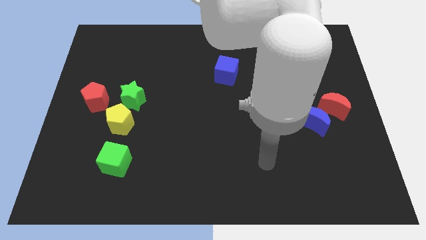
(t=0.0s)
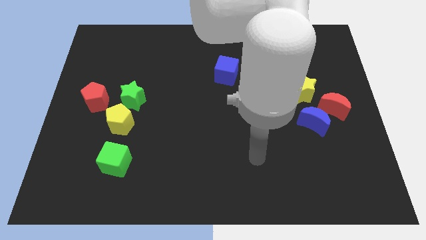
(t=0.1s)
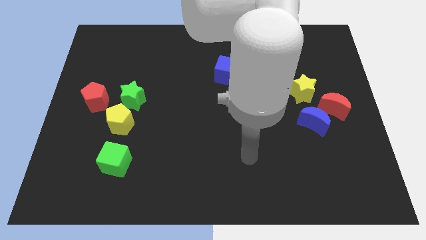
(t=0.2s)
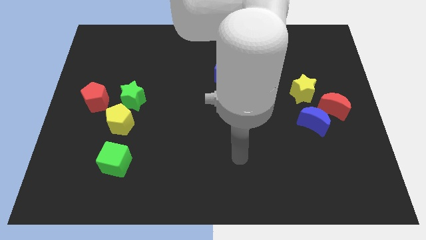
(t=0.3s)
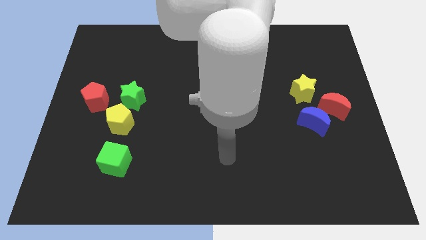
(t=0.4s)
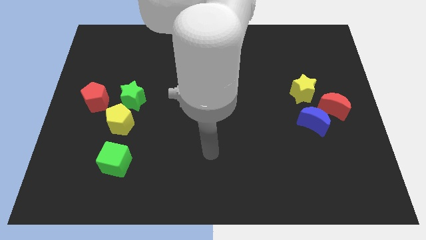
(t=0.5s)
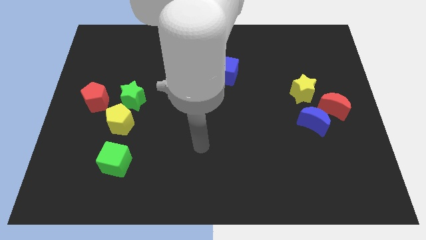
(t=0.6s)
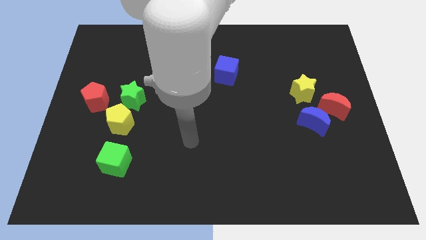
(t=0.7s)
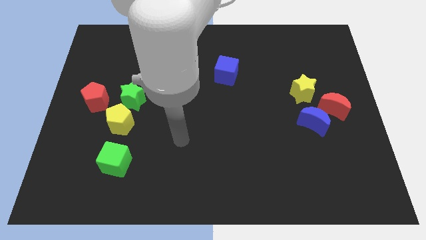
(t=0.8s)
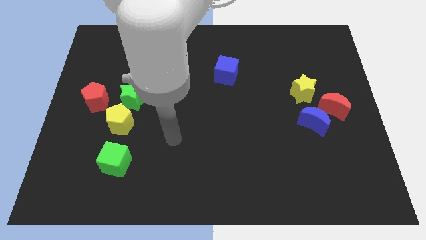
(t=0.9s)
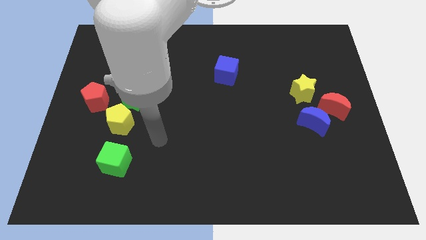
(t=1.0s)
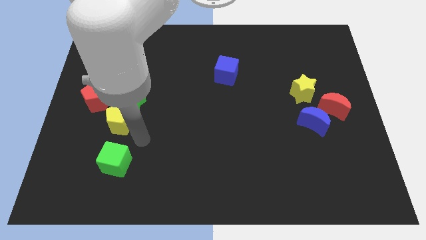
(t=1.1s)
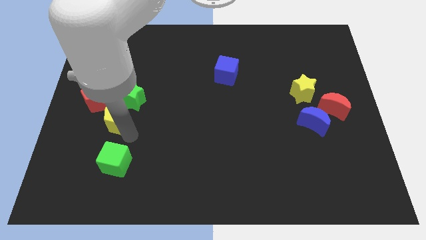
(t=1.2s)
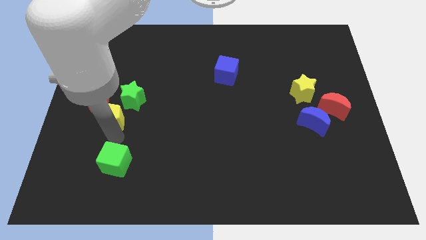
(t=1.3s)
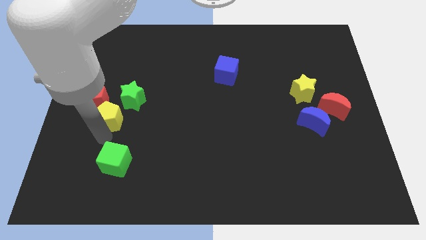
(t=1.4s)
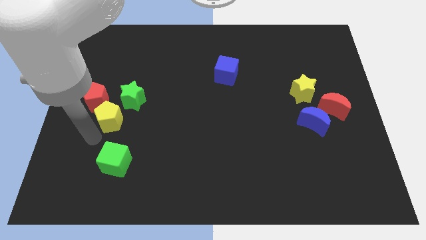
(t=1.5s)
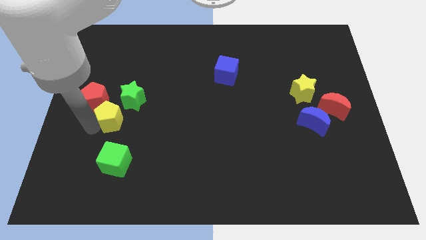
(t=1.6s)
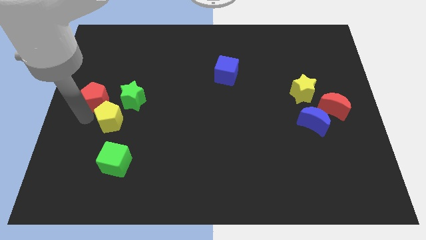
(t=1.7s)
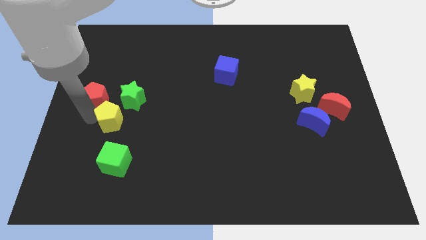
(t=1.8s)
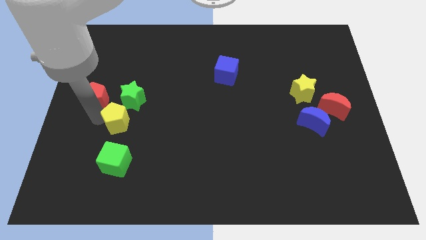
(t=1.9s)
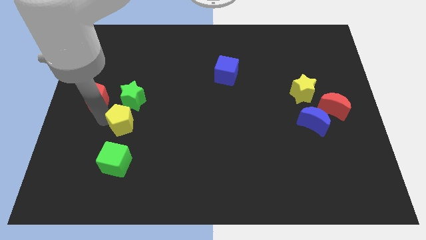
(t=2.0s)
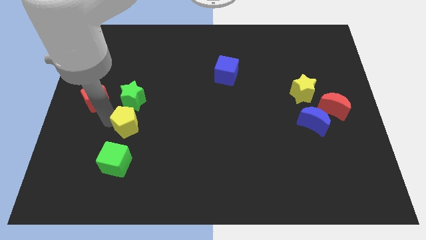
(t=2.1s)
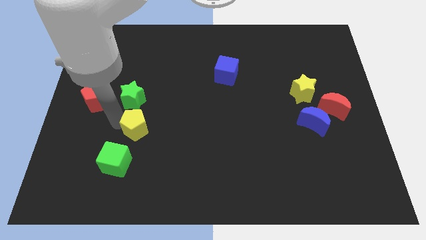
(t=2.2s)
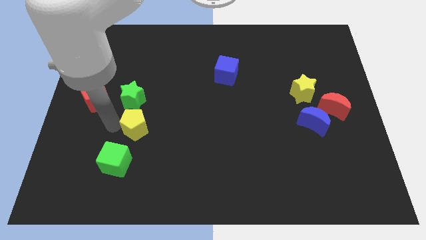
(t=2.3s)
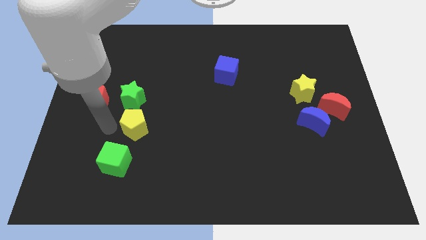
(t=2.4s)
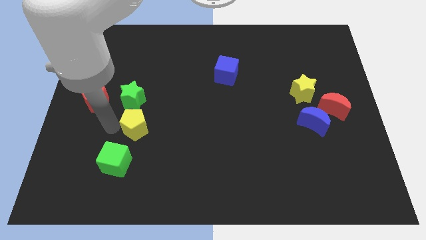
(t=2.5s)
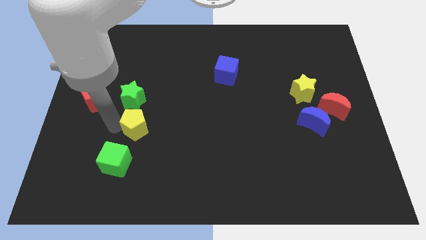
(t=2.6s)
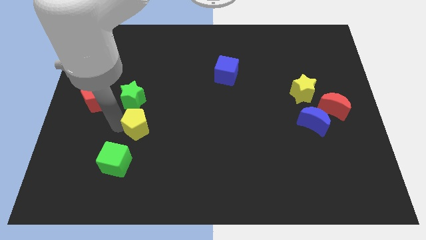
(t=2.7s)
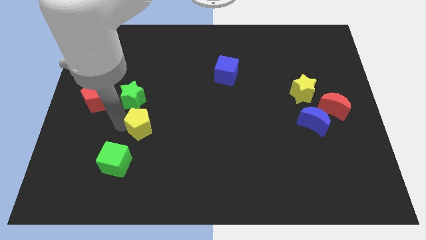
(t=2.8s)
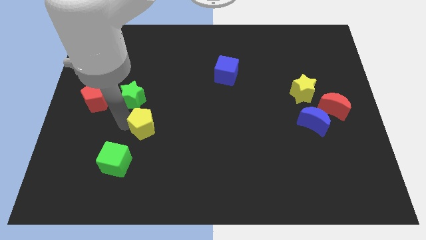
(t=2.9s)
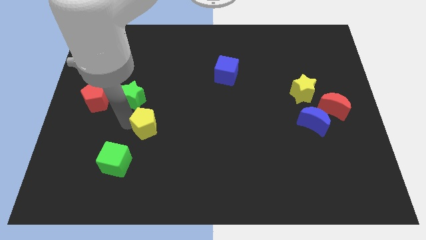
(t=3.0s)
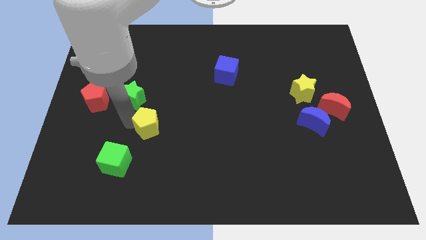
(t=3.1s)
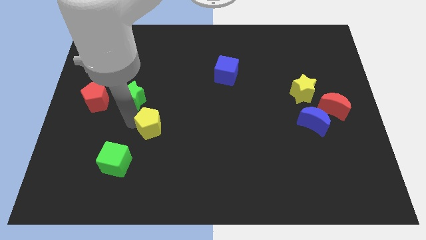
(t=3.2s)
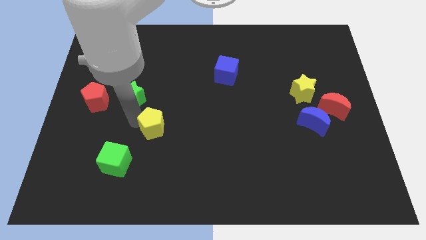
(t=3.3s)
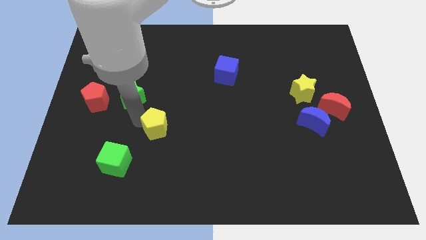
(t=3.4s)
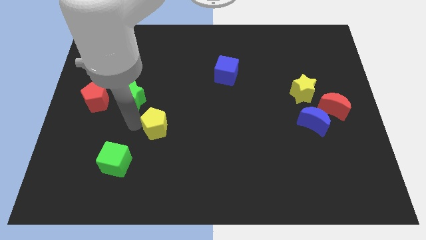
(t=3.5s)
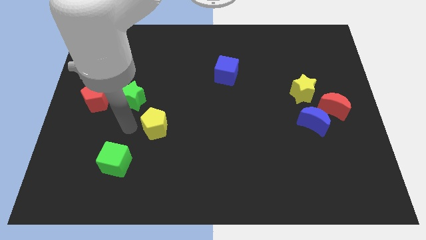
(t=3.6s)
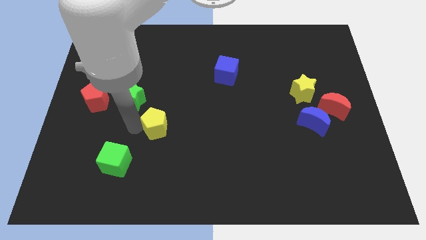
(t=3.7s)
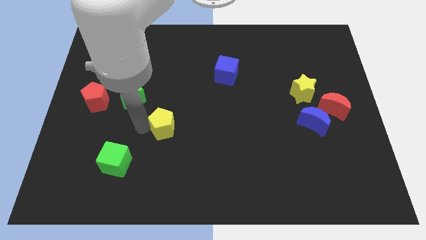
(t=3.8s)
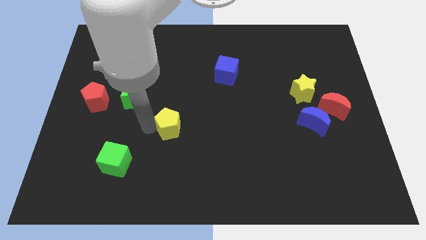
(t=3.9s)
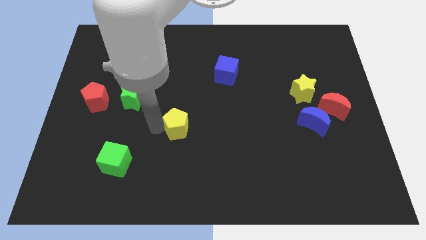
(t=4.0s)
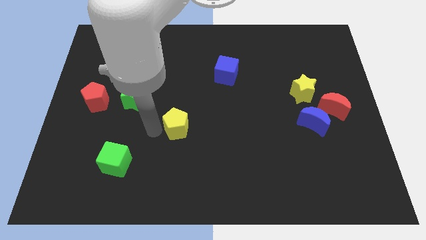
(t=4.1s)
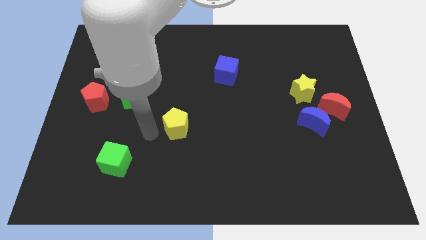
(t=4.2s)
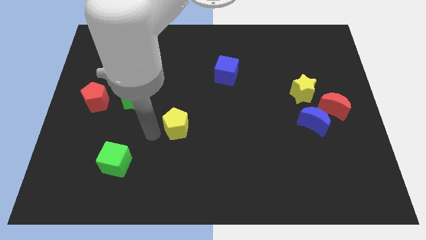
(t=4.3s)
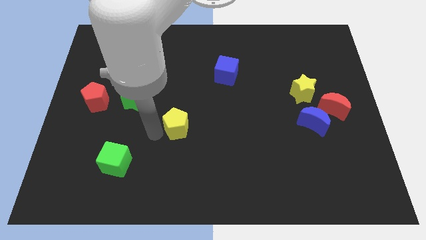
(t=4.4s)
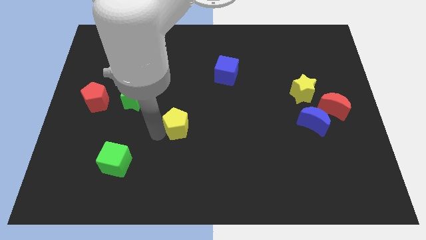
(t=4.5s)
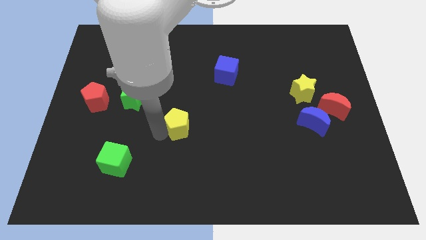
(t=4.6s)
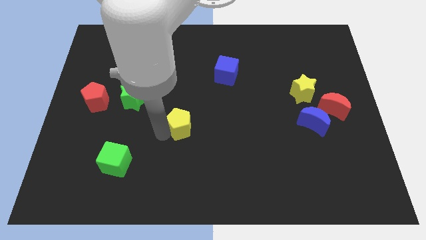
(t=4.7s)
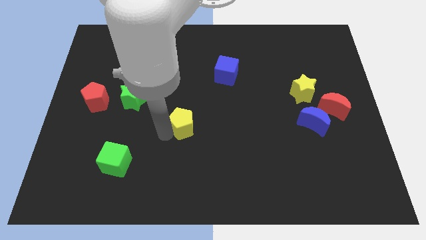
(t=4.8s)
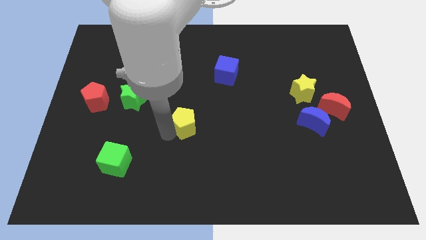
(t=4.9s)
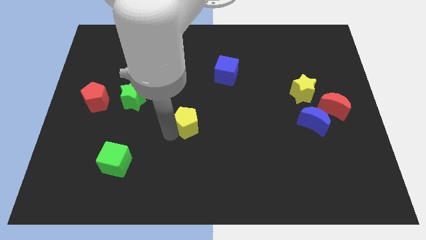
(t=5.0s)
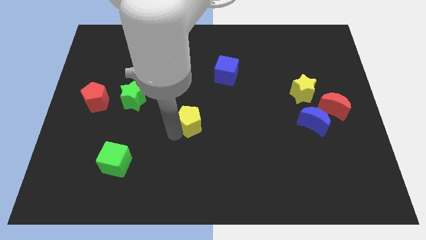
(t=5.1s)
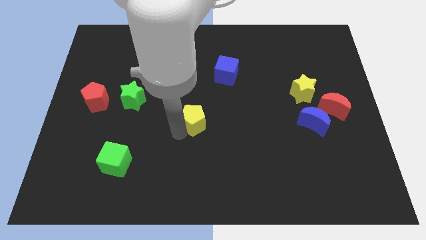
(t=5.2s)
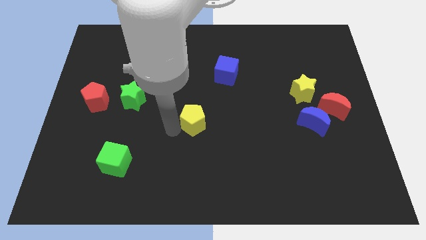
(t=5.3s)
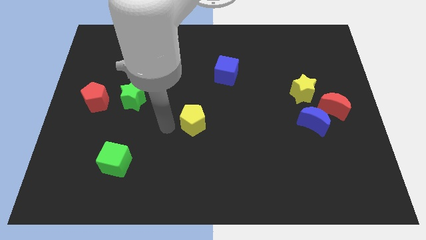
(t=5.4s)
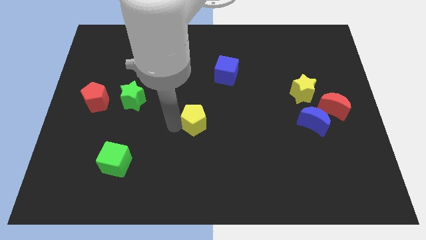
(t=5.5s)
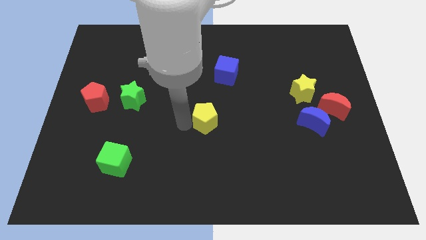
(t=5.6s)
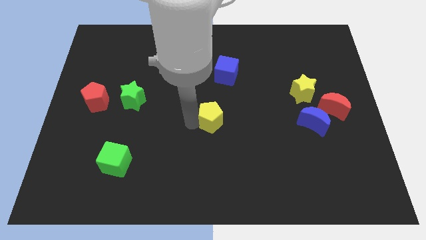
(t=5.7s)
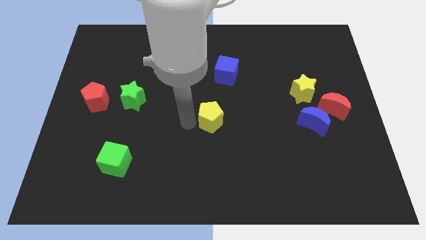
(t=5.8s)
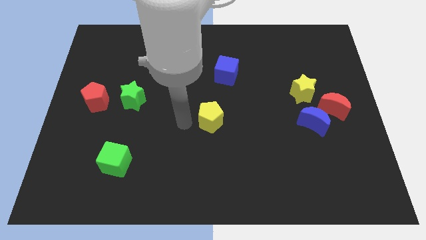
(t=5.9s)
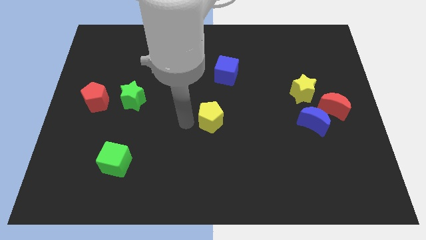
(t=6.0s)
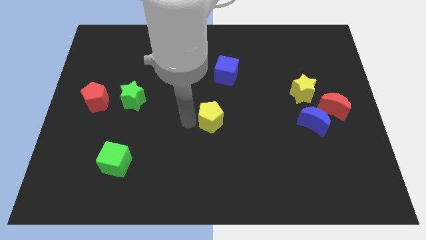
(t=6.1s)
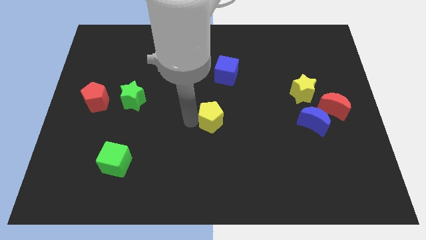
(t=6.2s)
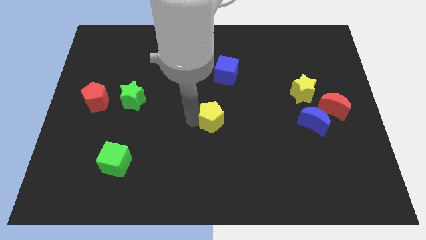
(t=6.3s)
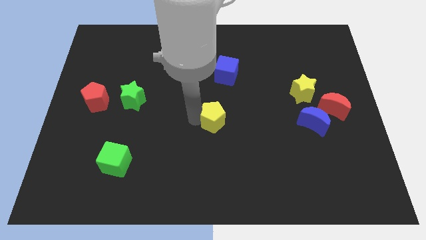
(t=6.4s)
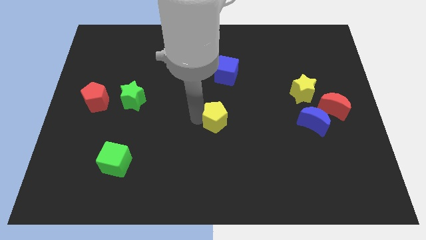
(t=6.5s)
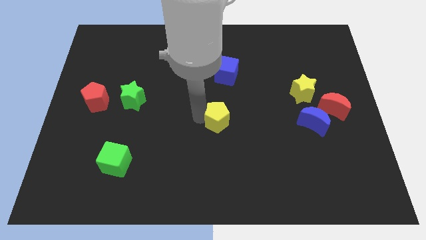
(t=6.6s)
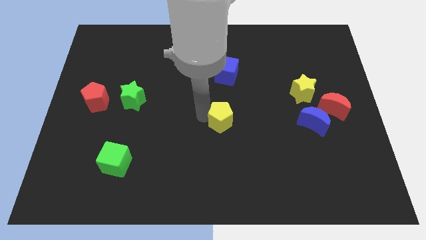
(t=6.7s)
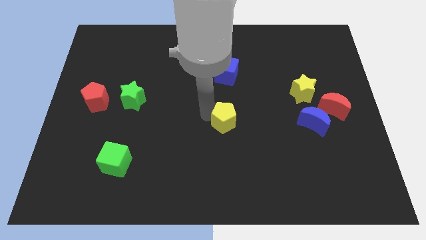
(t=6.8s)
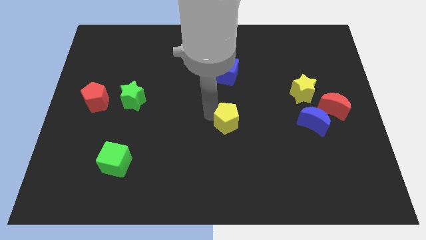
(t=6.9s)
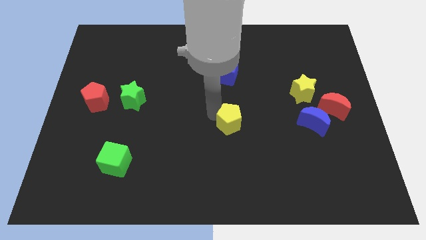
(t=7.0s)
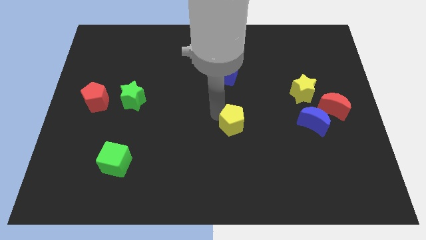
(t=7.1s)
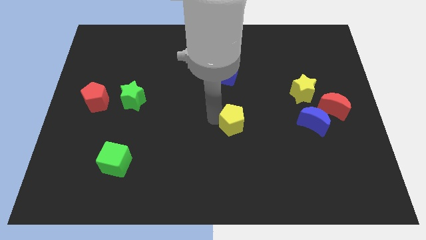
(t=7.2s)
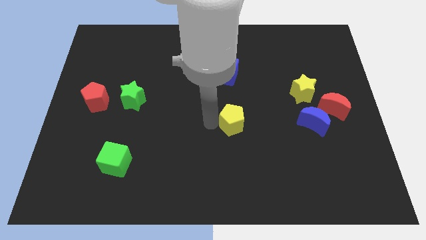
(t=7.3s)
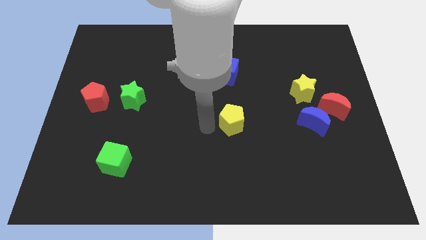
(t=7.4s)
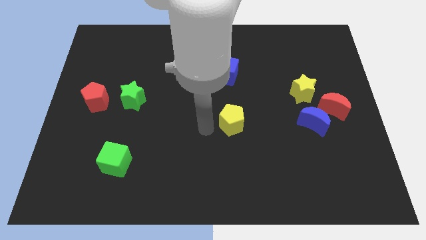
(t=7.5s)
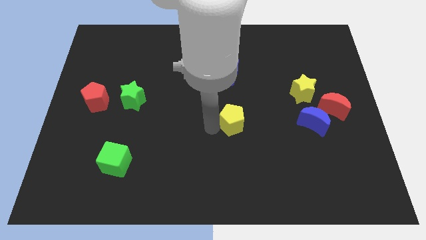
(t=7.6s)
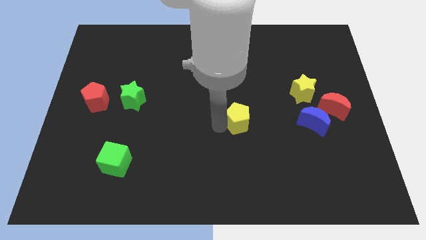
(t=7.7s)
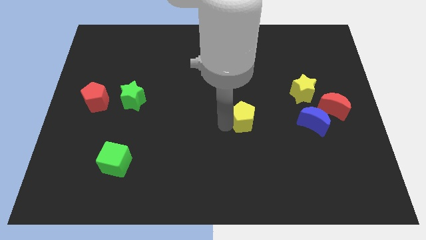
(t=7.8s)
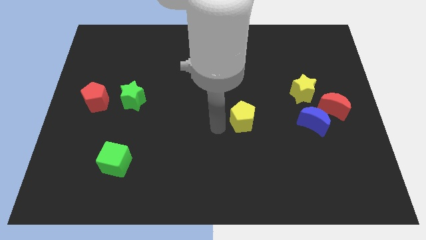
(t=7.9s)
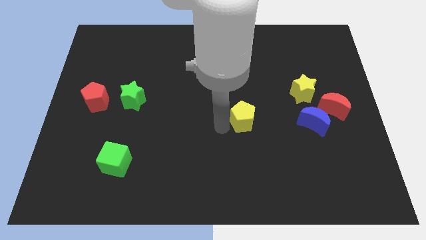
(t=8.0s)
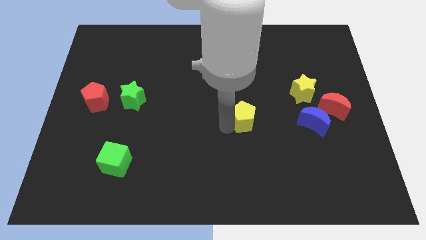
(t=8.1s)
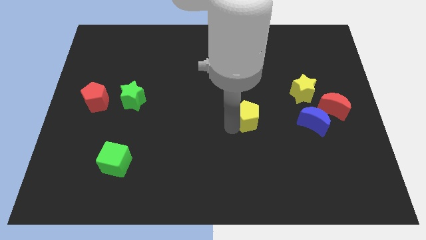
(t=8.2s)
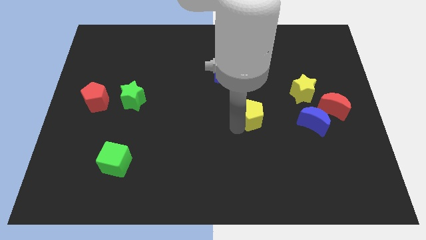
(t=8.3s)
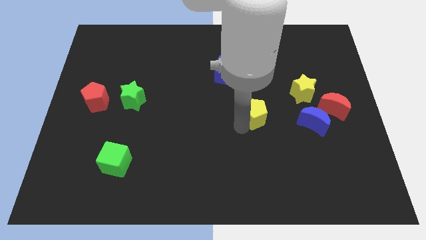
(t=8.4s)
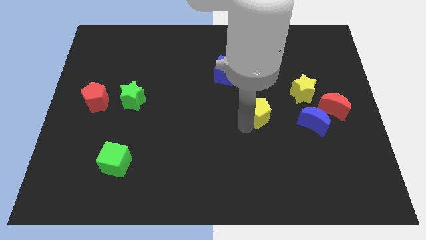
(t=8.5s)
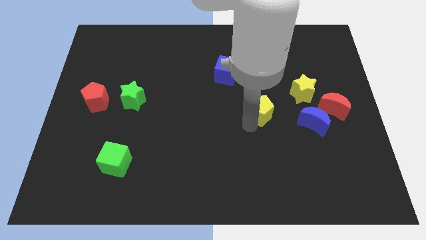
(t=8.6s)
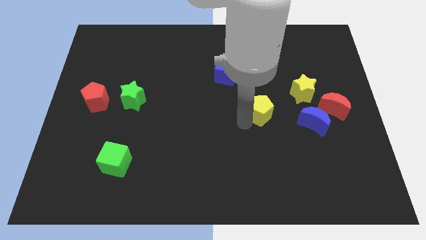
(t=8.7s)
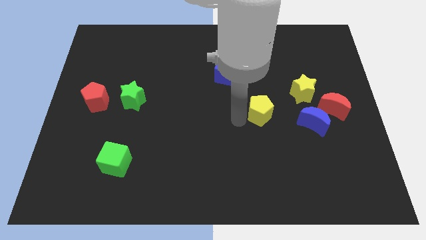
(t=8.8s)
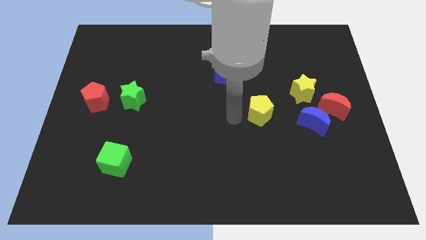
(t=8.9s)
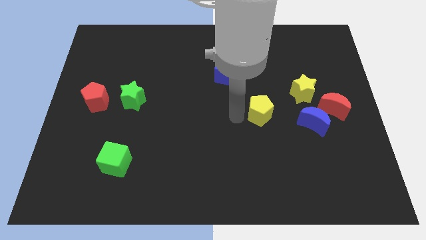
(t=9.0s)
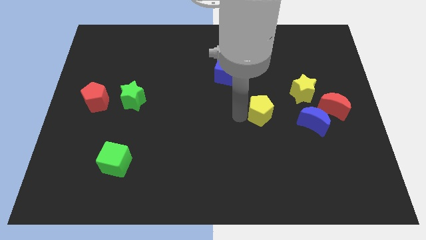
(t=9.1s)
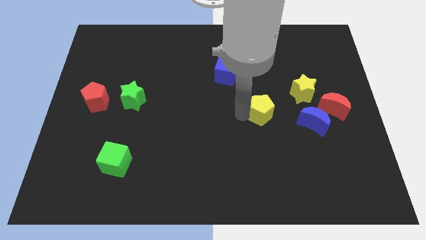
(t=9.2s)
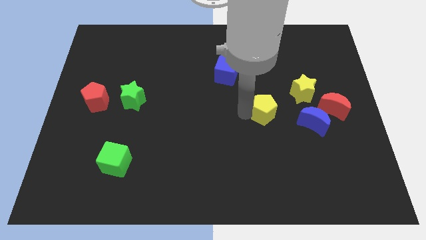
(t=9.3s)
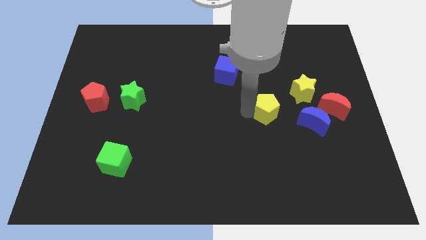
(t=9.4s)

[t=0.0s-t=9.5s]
put the yellow pentagon to the left side of the red moon
